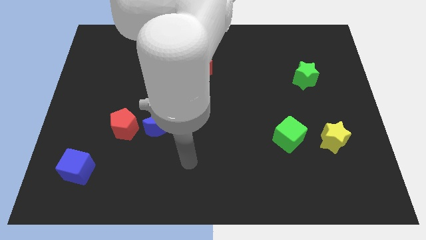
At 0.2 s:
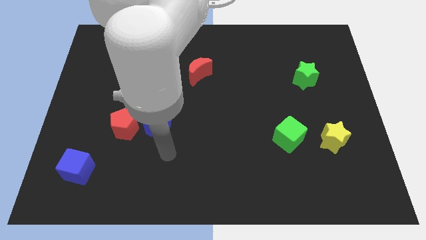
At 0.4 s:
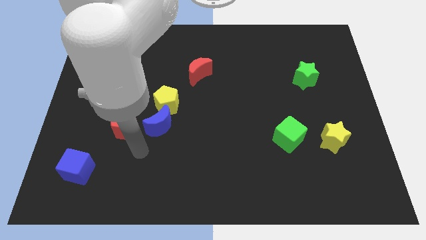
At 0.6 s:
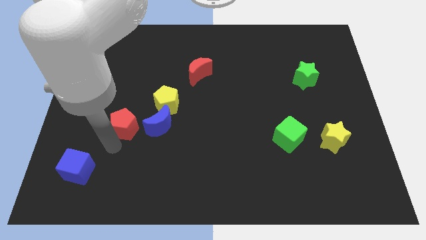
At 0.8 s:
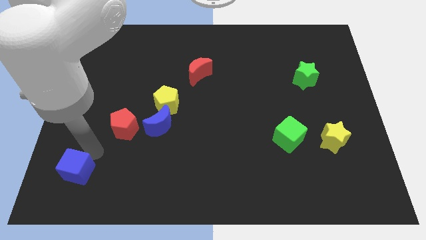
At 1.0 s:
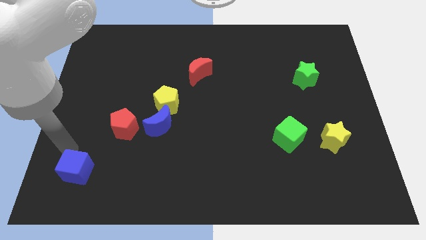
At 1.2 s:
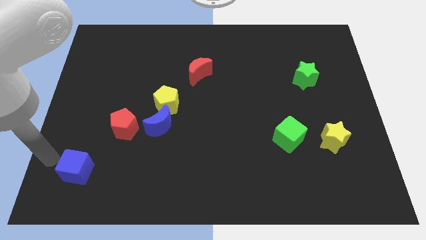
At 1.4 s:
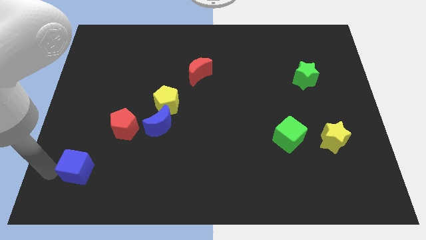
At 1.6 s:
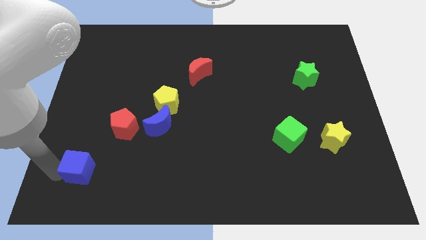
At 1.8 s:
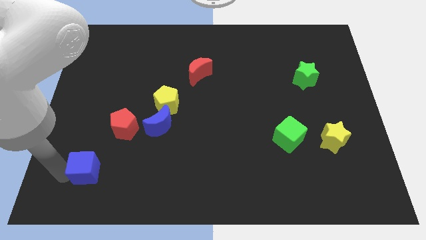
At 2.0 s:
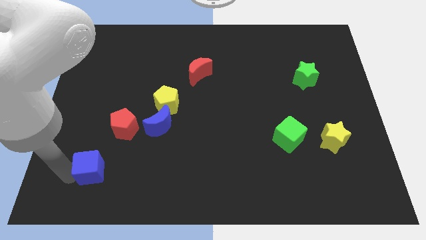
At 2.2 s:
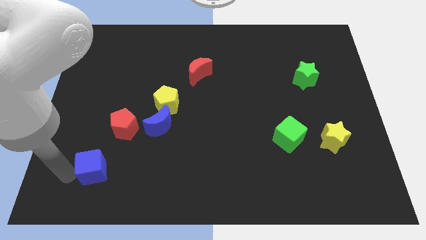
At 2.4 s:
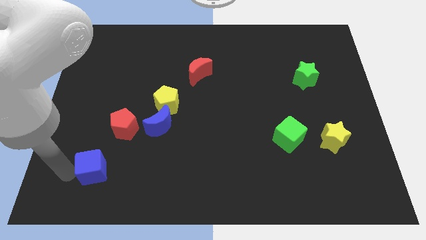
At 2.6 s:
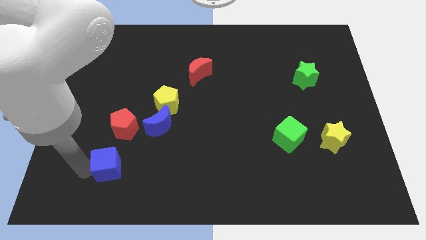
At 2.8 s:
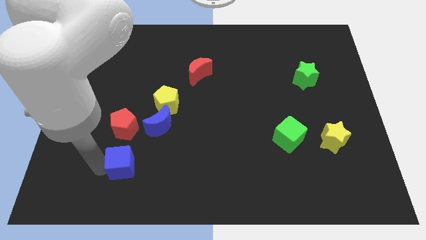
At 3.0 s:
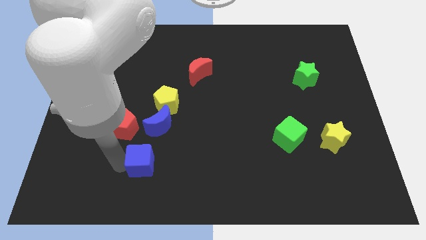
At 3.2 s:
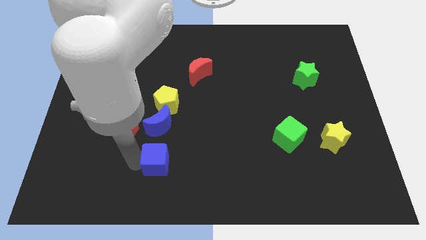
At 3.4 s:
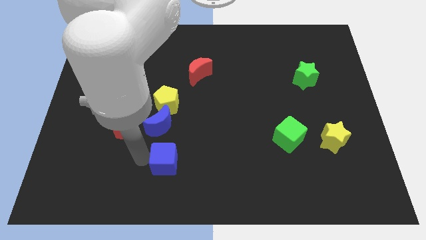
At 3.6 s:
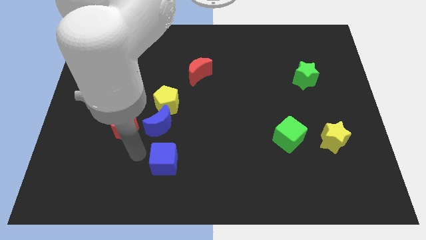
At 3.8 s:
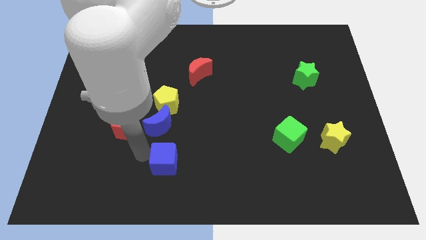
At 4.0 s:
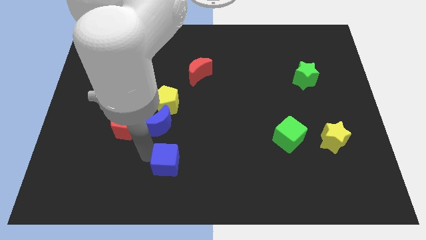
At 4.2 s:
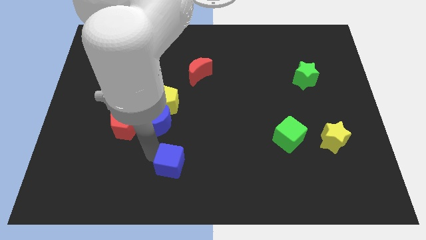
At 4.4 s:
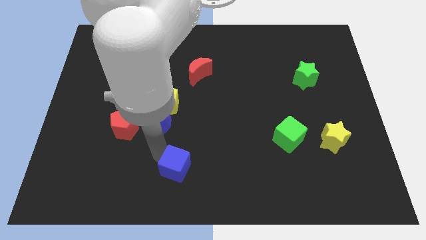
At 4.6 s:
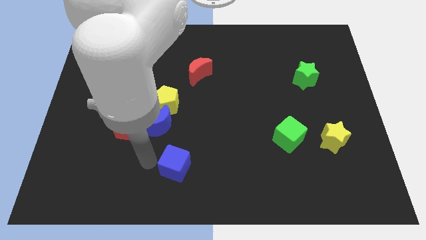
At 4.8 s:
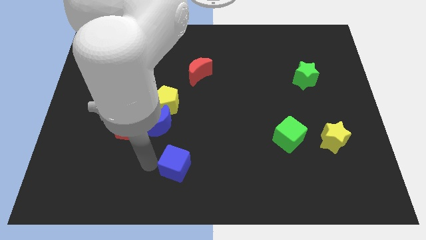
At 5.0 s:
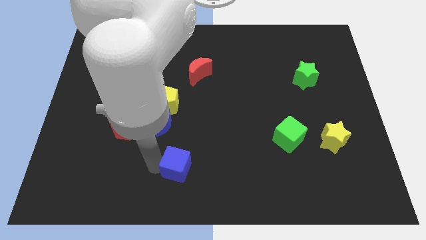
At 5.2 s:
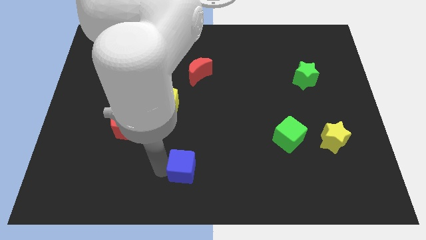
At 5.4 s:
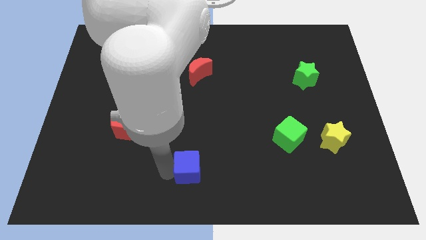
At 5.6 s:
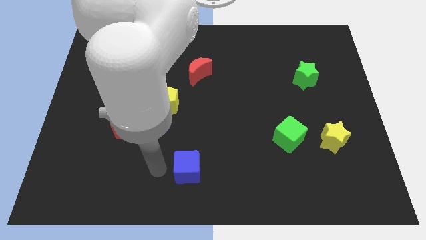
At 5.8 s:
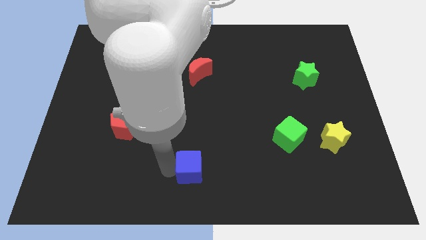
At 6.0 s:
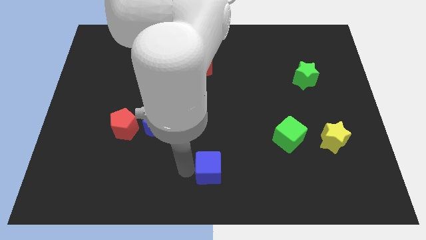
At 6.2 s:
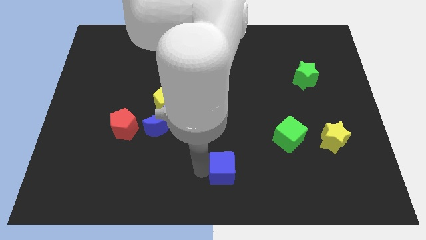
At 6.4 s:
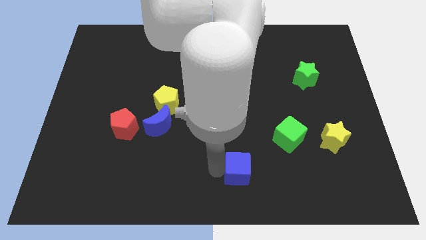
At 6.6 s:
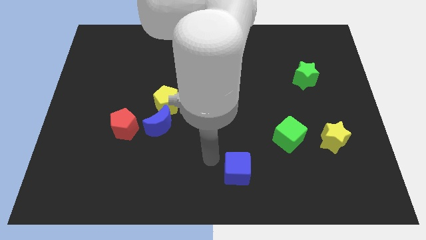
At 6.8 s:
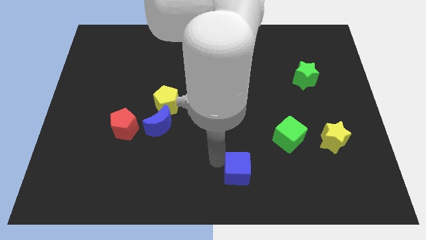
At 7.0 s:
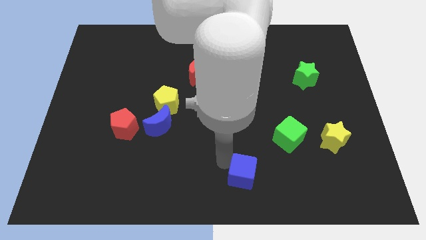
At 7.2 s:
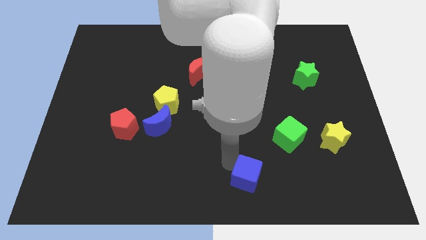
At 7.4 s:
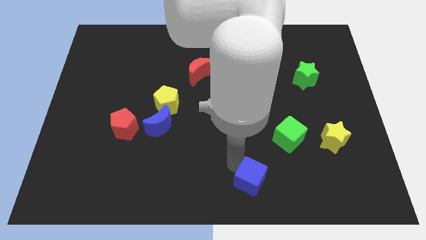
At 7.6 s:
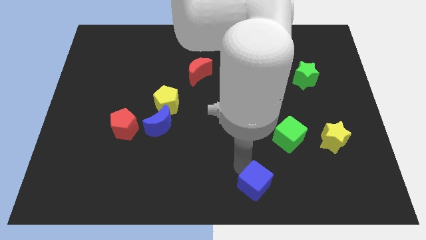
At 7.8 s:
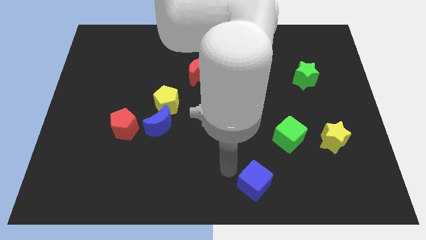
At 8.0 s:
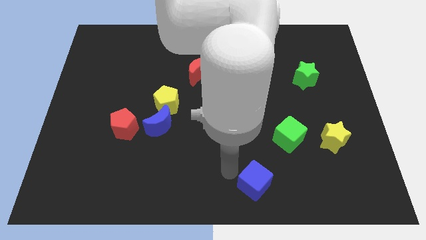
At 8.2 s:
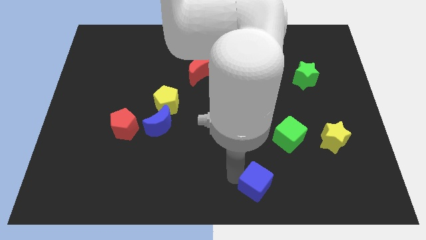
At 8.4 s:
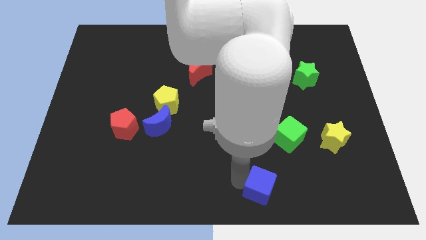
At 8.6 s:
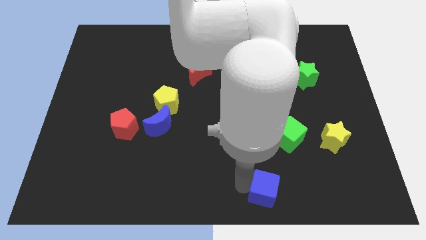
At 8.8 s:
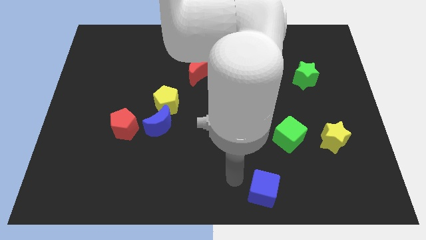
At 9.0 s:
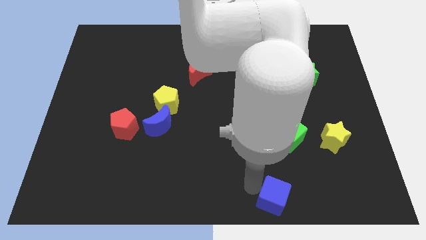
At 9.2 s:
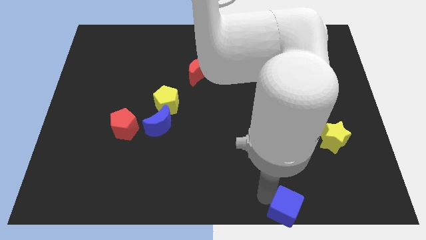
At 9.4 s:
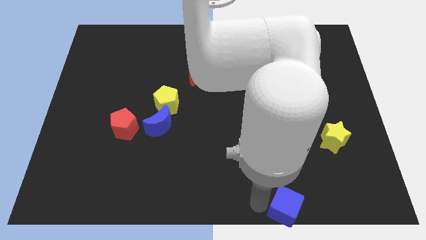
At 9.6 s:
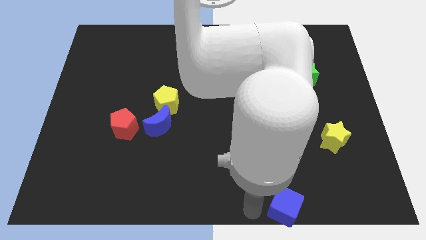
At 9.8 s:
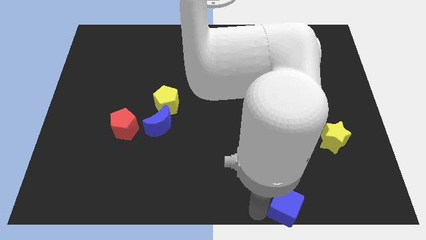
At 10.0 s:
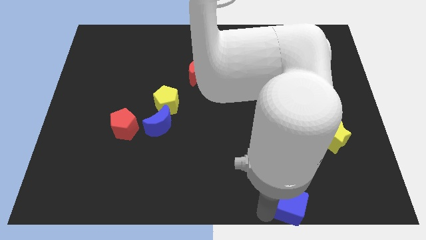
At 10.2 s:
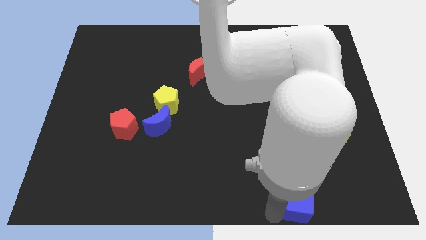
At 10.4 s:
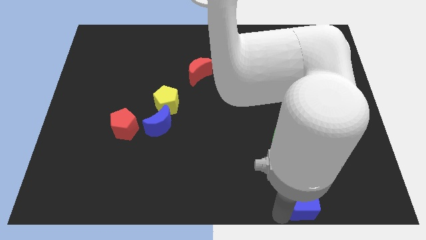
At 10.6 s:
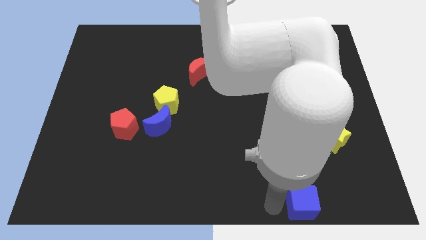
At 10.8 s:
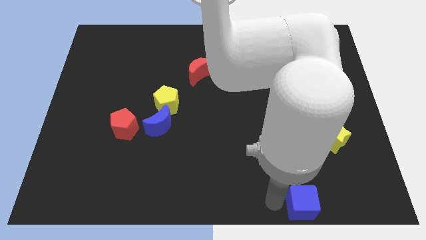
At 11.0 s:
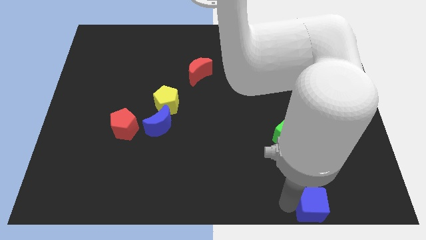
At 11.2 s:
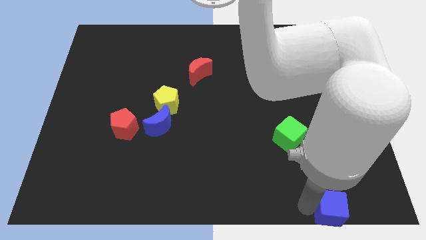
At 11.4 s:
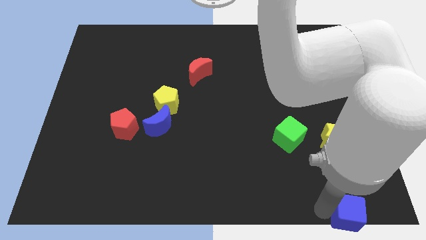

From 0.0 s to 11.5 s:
slide the blue cube to the lower right corner

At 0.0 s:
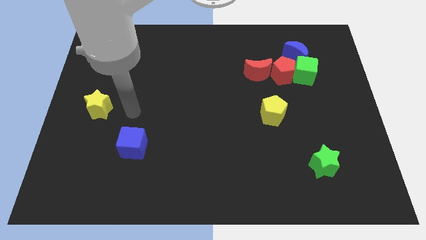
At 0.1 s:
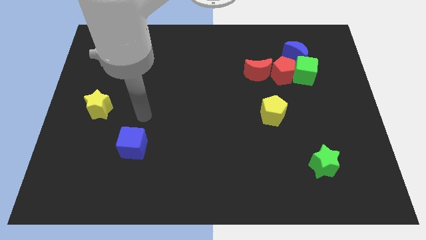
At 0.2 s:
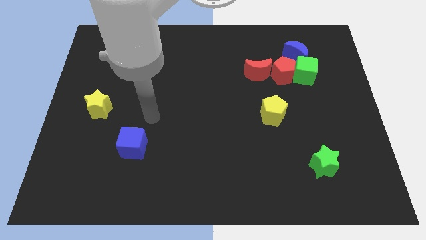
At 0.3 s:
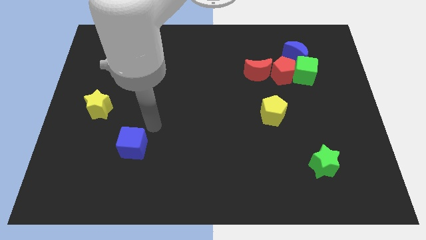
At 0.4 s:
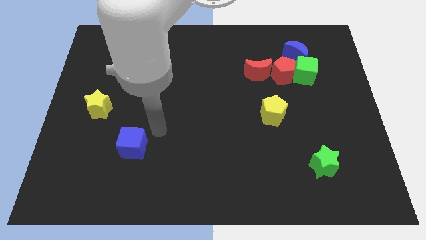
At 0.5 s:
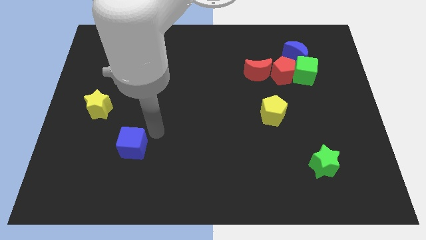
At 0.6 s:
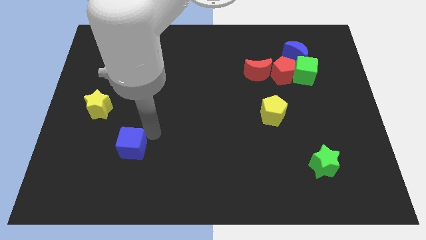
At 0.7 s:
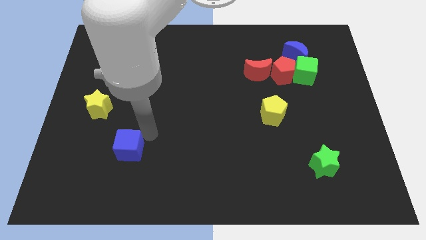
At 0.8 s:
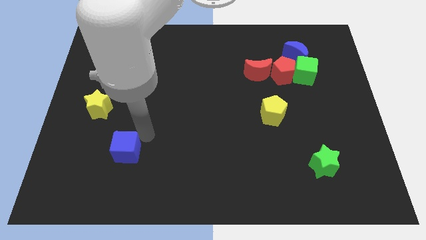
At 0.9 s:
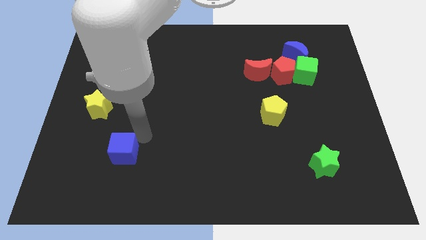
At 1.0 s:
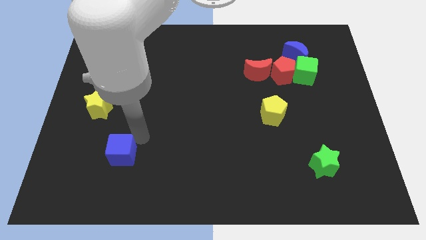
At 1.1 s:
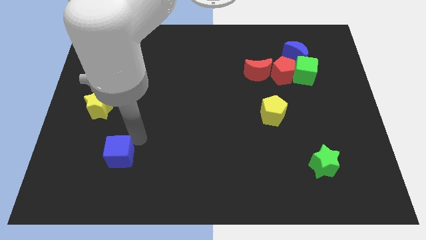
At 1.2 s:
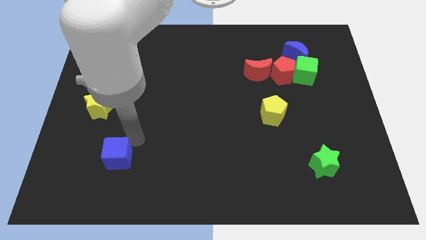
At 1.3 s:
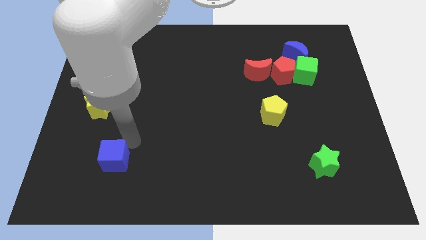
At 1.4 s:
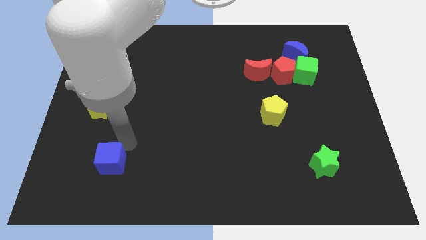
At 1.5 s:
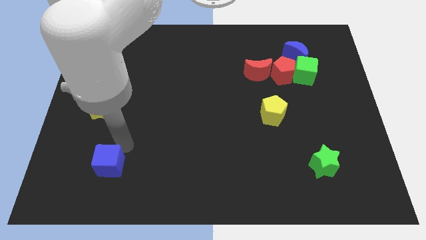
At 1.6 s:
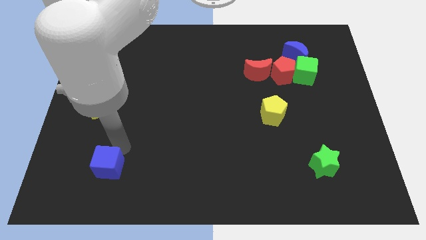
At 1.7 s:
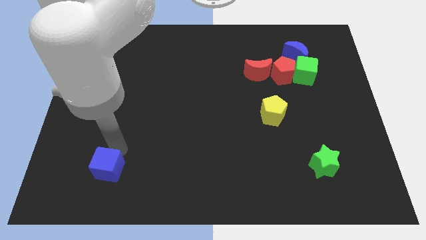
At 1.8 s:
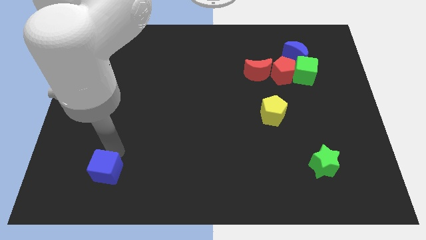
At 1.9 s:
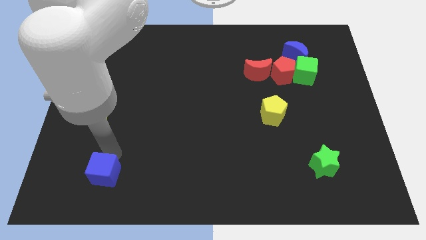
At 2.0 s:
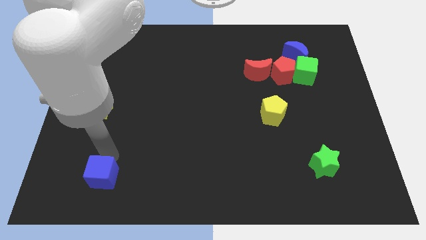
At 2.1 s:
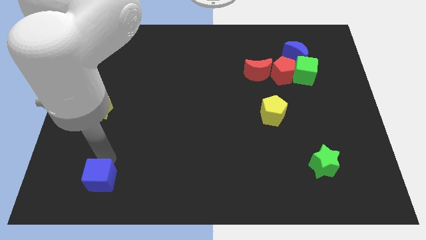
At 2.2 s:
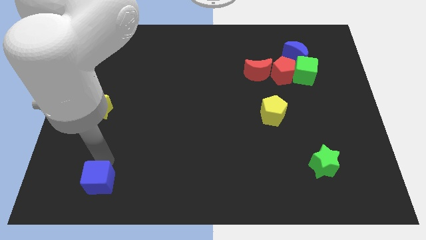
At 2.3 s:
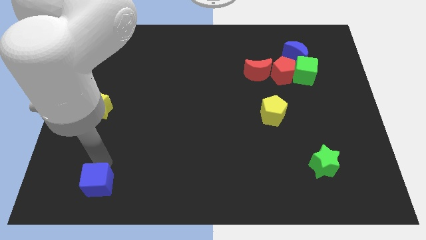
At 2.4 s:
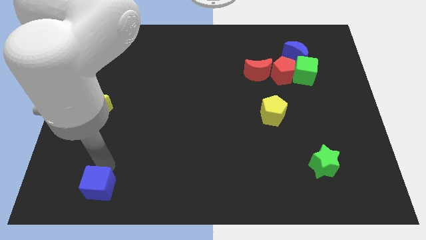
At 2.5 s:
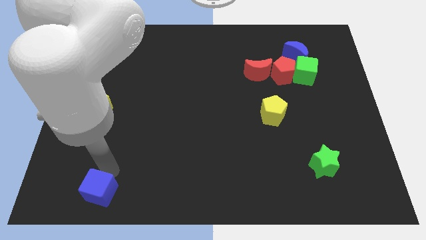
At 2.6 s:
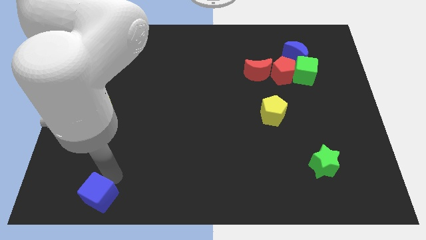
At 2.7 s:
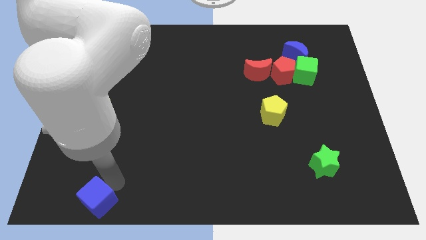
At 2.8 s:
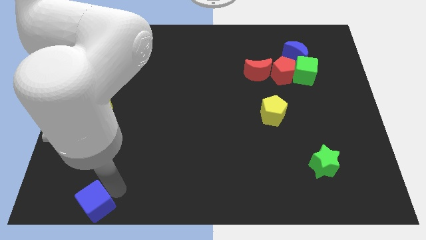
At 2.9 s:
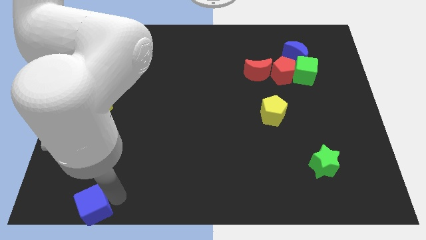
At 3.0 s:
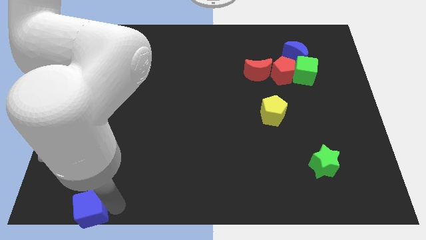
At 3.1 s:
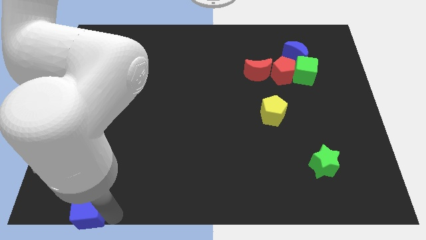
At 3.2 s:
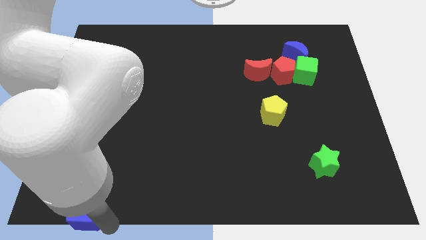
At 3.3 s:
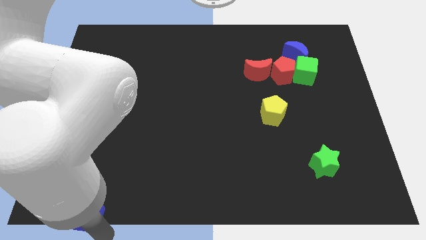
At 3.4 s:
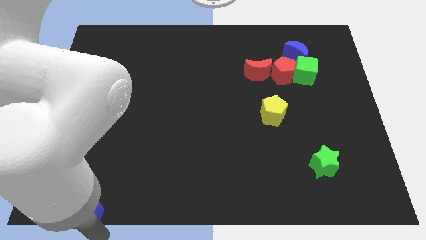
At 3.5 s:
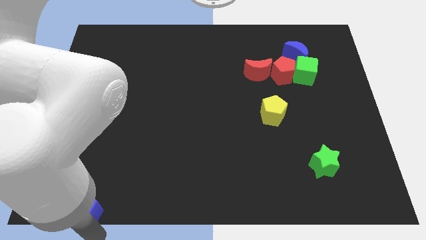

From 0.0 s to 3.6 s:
push the blue cube to the bottom left corner
